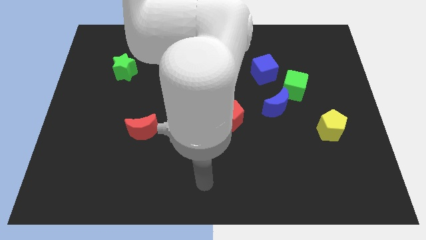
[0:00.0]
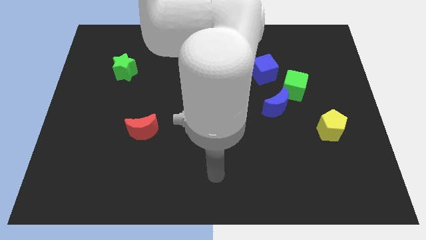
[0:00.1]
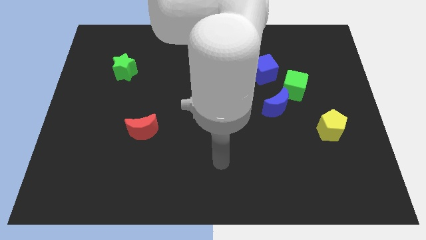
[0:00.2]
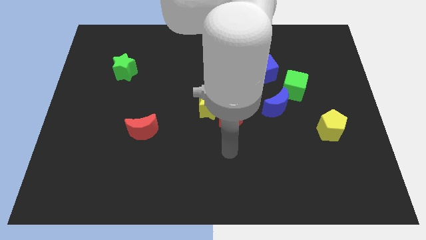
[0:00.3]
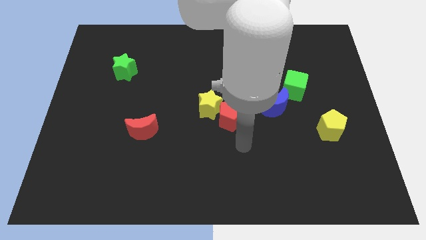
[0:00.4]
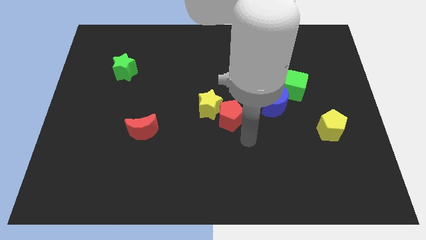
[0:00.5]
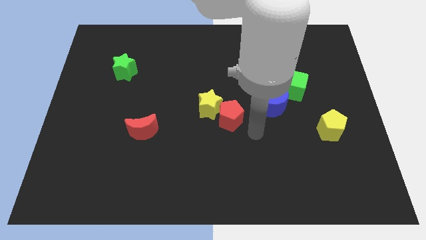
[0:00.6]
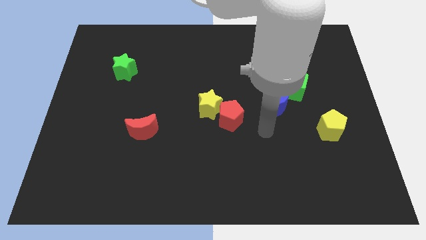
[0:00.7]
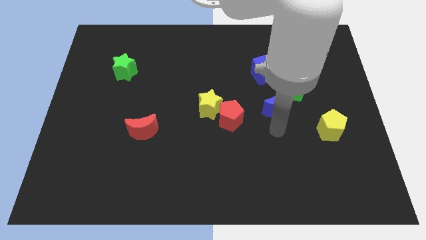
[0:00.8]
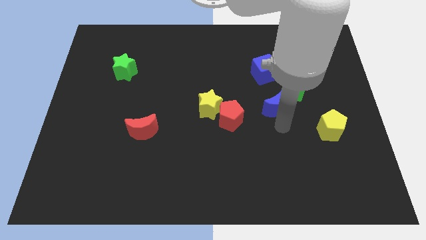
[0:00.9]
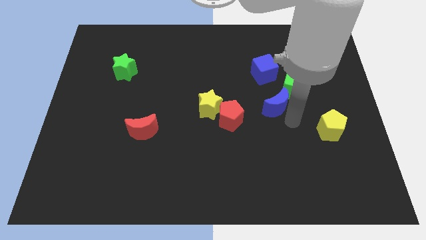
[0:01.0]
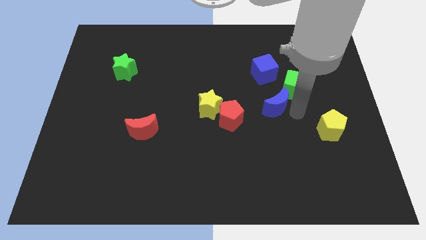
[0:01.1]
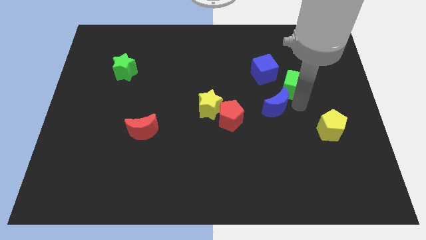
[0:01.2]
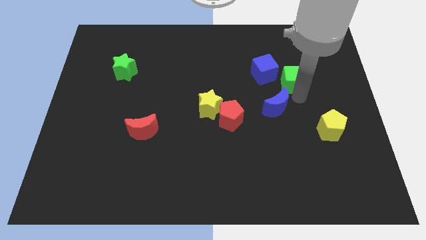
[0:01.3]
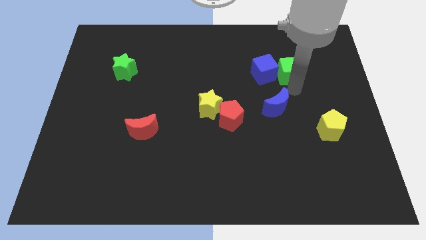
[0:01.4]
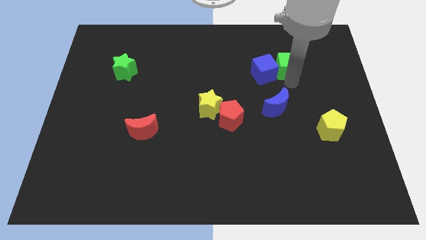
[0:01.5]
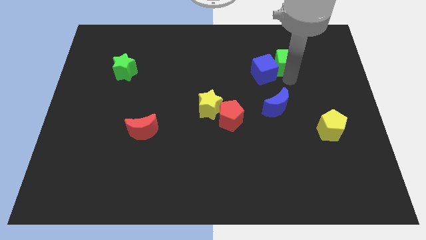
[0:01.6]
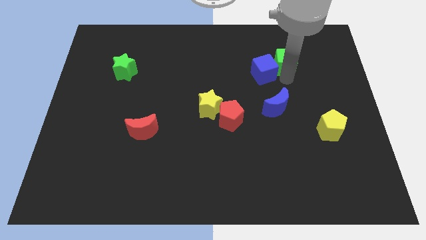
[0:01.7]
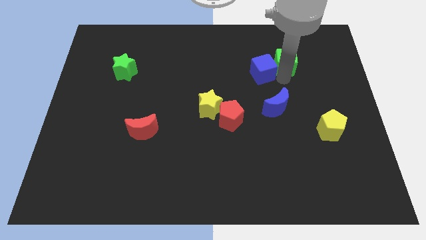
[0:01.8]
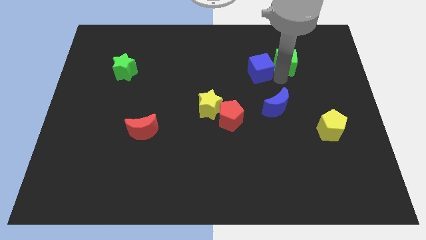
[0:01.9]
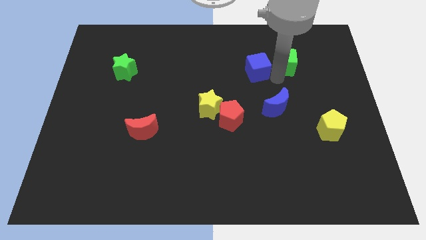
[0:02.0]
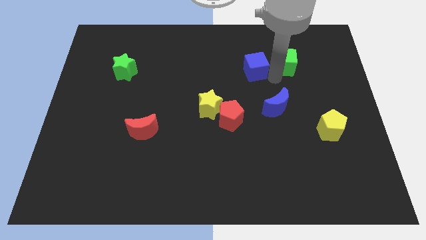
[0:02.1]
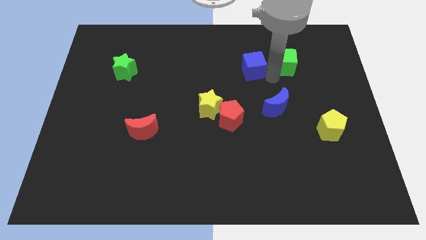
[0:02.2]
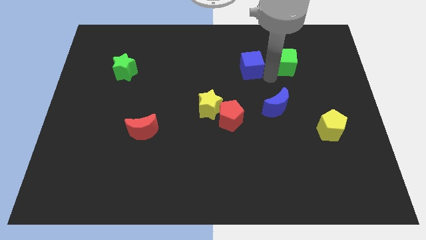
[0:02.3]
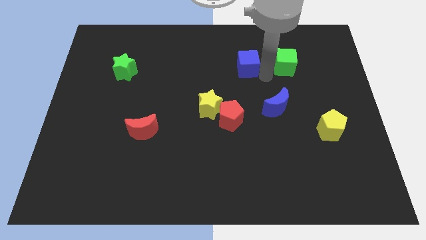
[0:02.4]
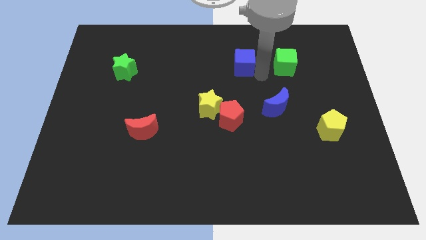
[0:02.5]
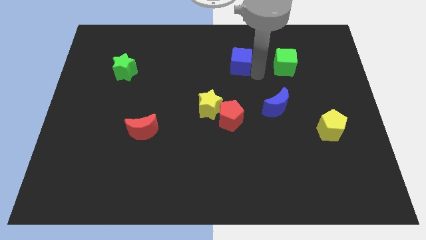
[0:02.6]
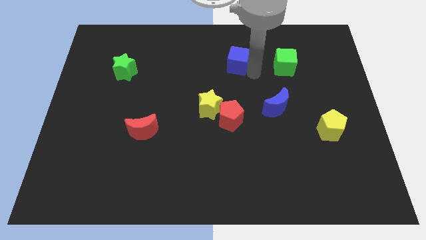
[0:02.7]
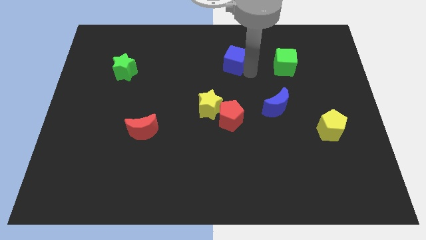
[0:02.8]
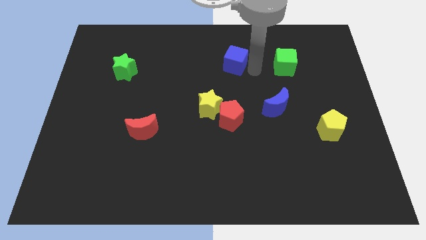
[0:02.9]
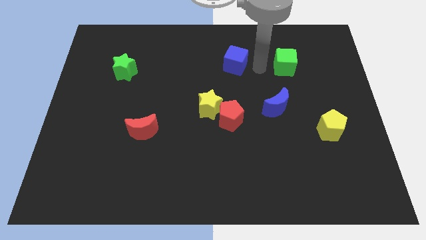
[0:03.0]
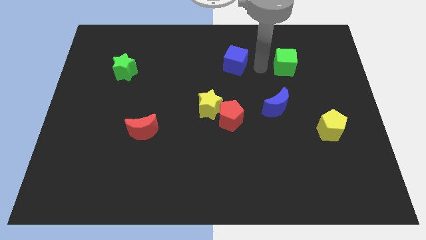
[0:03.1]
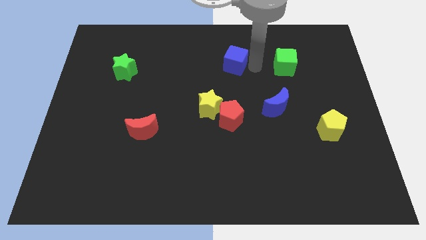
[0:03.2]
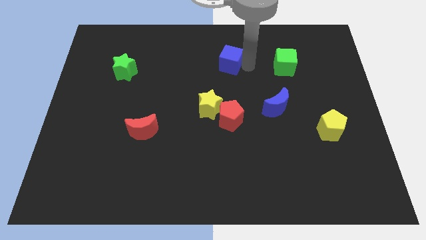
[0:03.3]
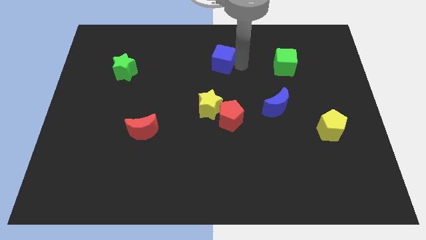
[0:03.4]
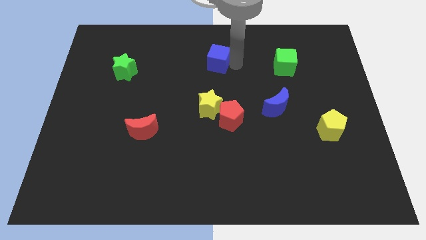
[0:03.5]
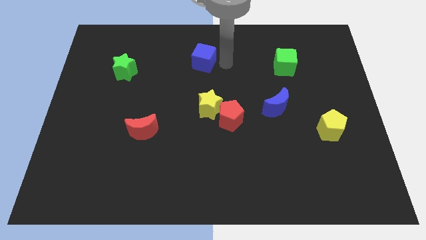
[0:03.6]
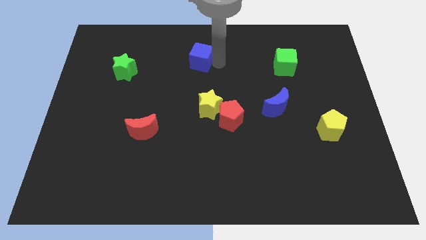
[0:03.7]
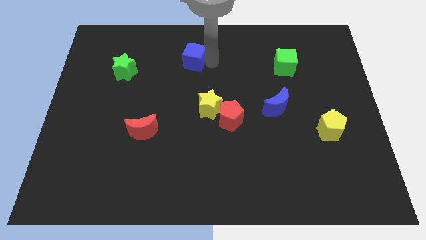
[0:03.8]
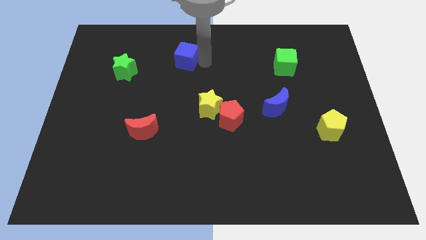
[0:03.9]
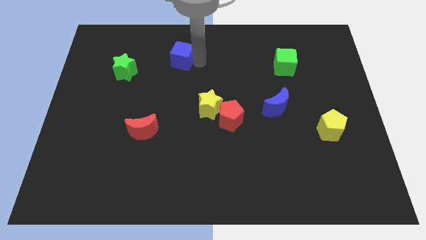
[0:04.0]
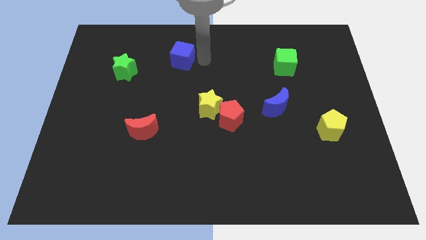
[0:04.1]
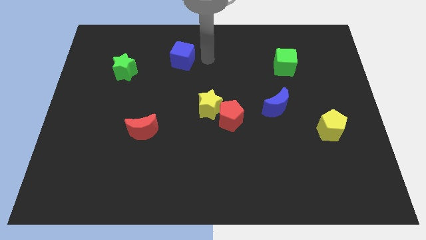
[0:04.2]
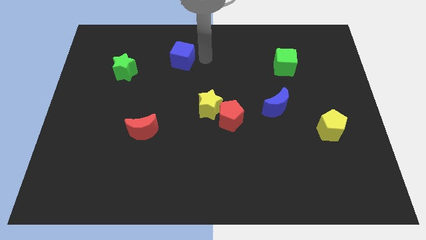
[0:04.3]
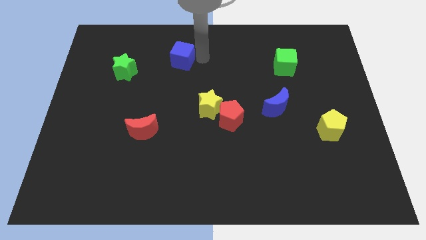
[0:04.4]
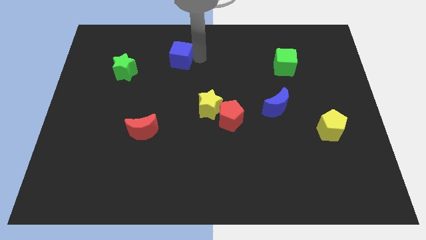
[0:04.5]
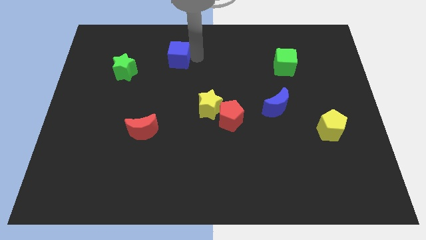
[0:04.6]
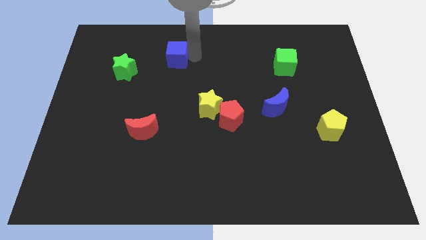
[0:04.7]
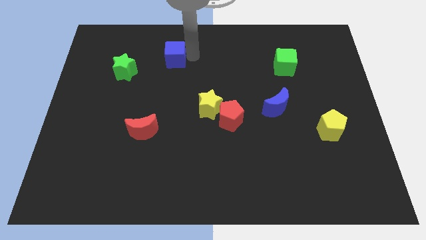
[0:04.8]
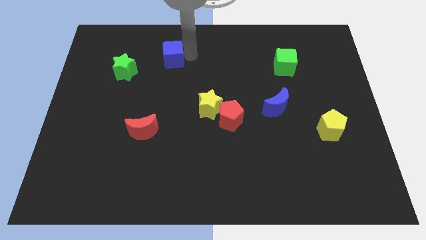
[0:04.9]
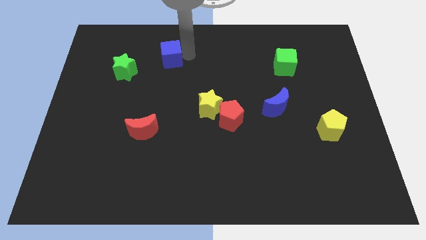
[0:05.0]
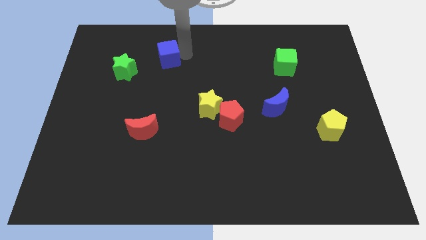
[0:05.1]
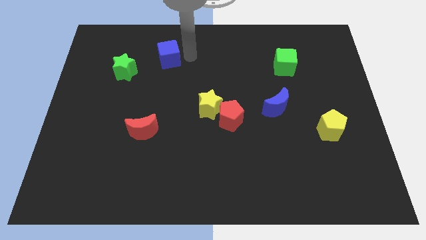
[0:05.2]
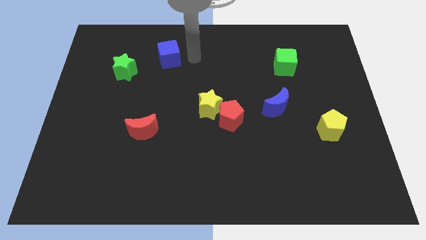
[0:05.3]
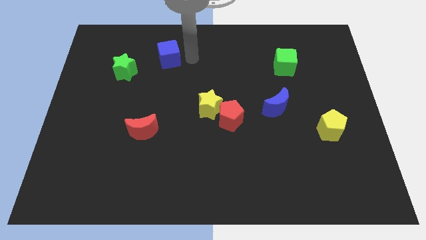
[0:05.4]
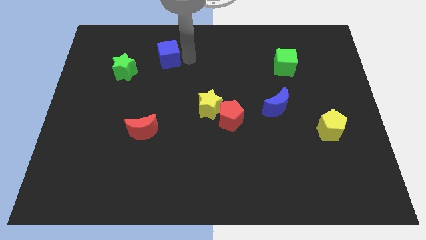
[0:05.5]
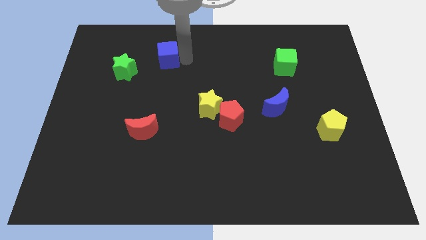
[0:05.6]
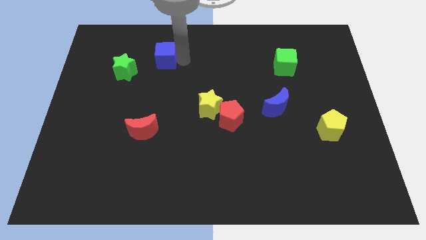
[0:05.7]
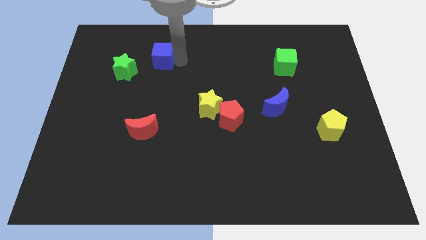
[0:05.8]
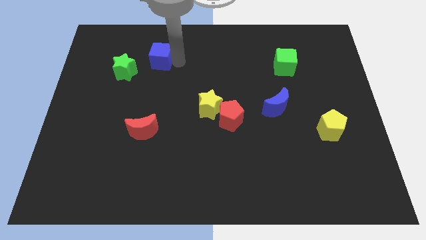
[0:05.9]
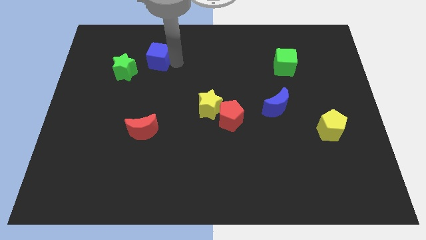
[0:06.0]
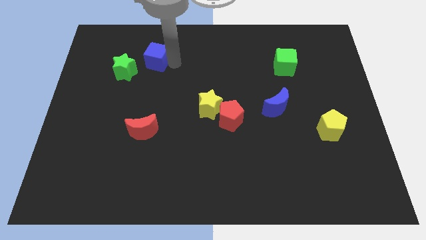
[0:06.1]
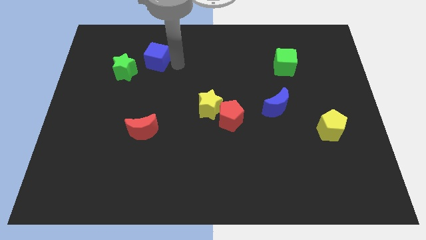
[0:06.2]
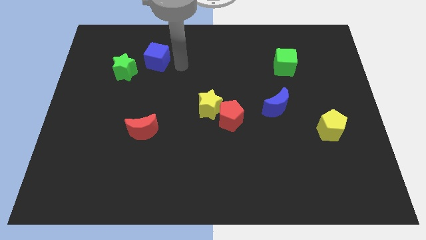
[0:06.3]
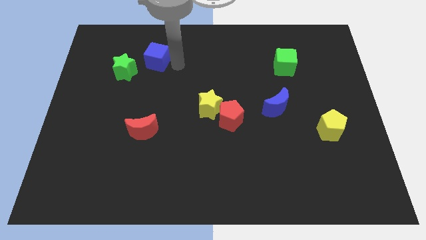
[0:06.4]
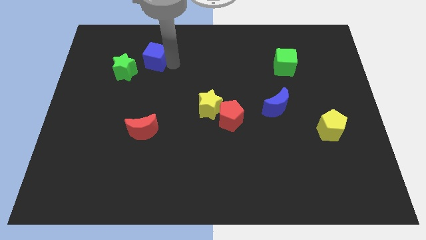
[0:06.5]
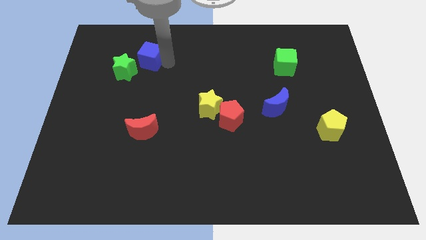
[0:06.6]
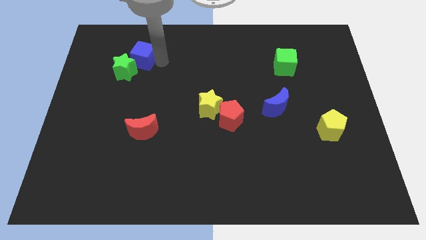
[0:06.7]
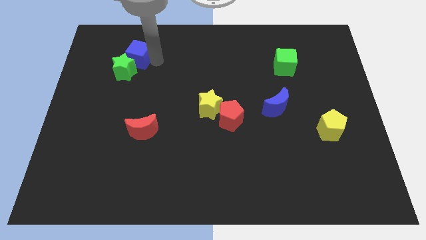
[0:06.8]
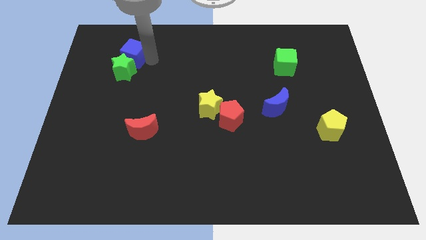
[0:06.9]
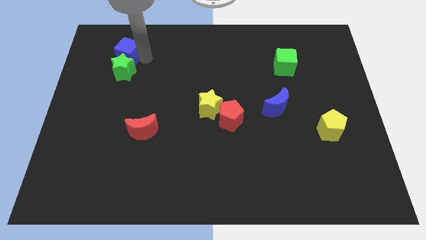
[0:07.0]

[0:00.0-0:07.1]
put the blue cube to the top left of the green star

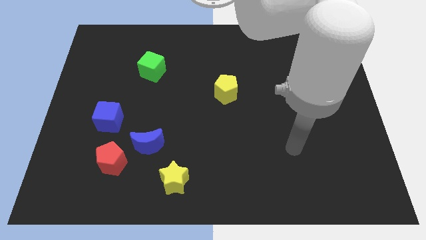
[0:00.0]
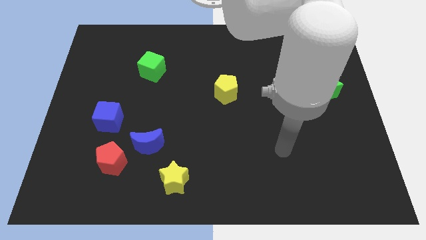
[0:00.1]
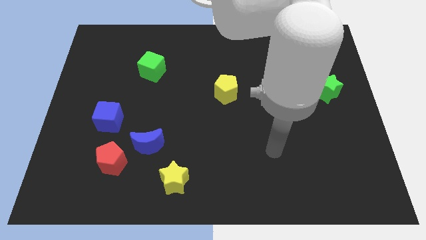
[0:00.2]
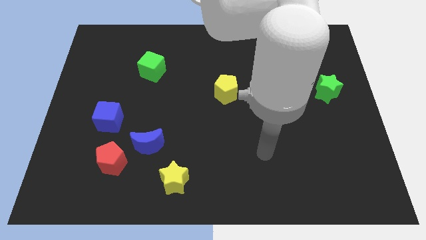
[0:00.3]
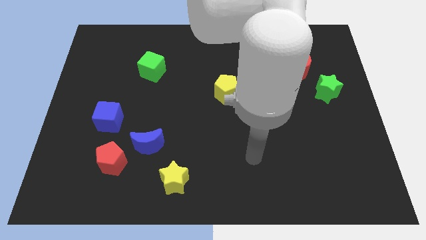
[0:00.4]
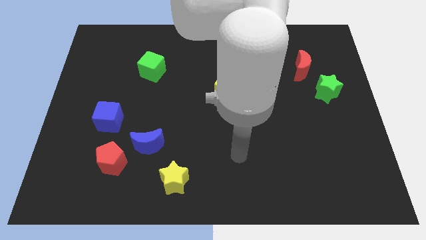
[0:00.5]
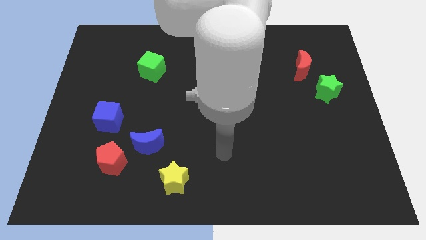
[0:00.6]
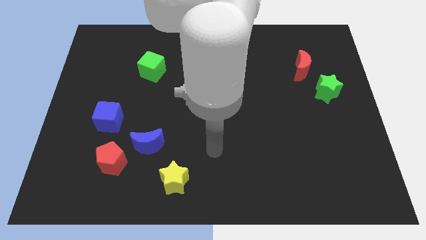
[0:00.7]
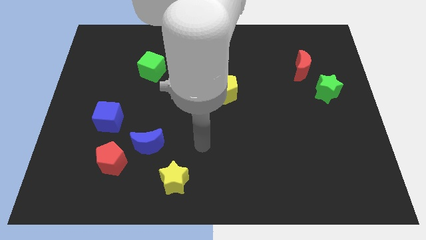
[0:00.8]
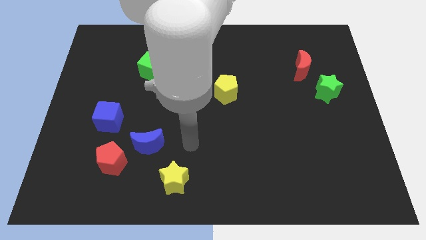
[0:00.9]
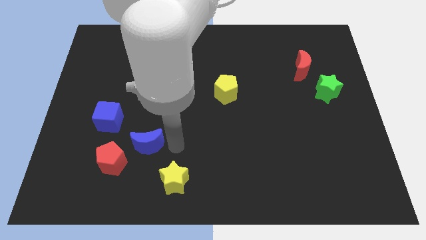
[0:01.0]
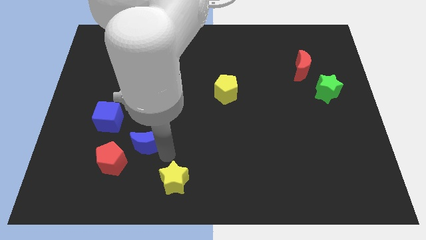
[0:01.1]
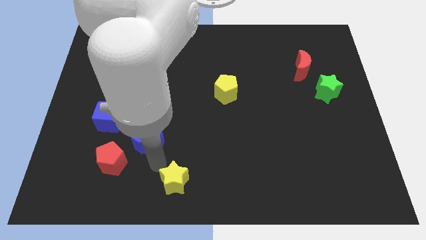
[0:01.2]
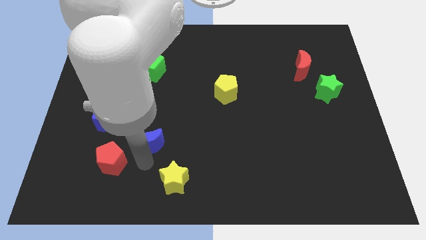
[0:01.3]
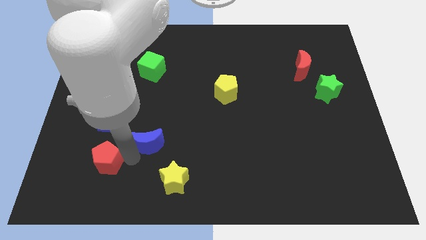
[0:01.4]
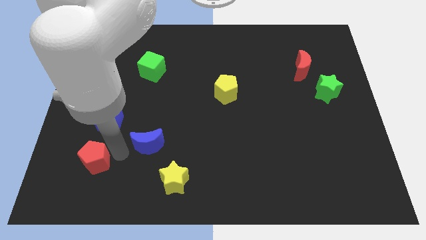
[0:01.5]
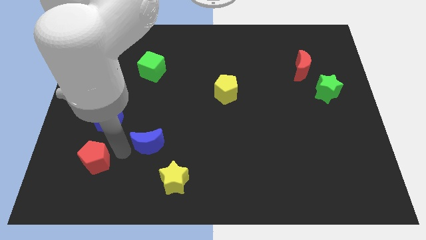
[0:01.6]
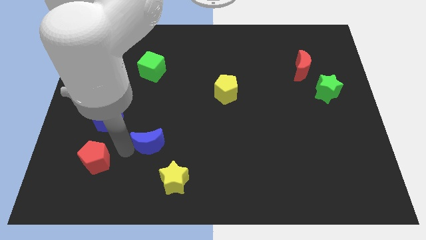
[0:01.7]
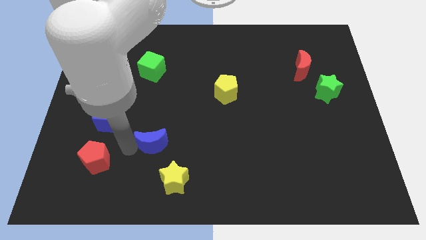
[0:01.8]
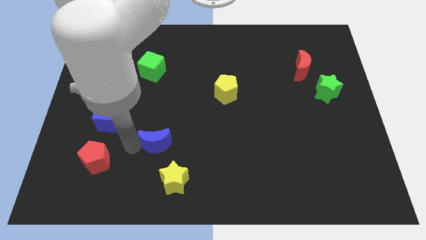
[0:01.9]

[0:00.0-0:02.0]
push the blue moon to the top of the yellow star
